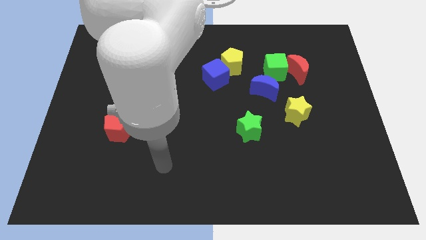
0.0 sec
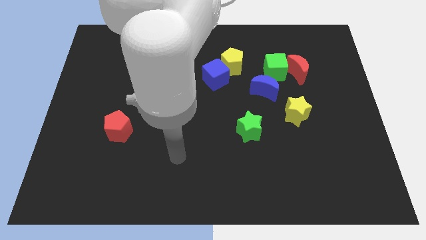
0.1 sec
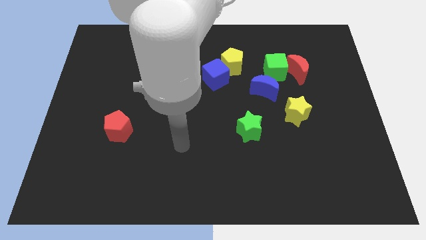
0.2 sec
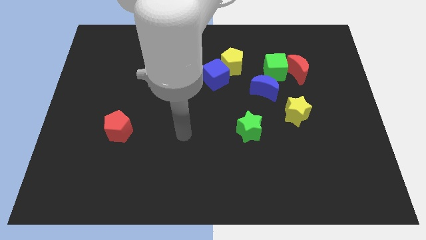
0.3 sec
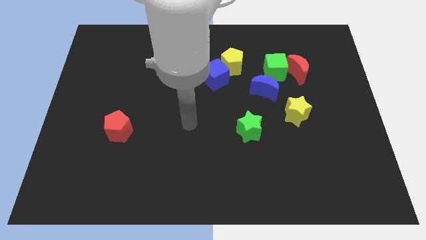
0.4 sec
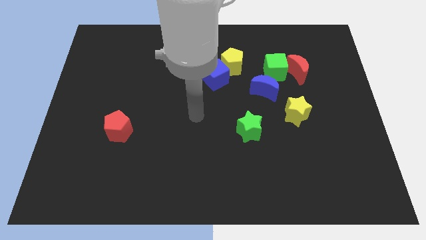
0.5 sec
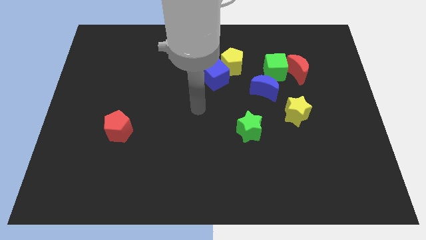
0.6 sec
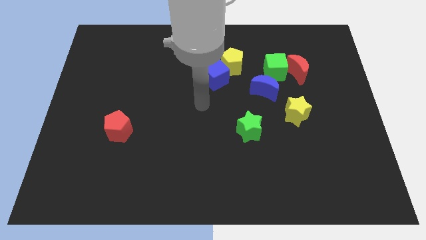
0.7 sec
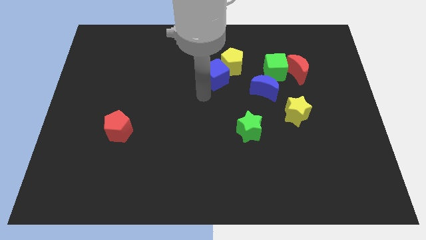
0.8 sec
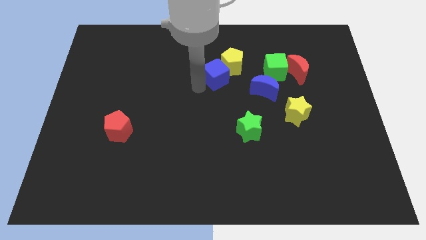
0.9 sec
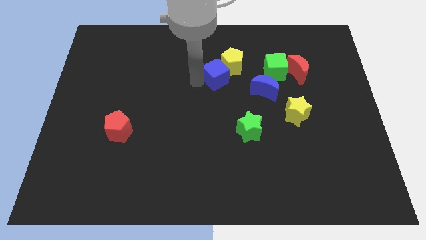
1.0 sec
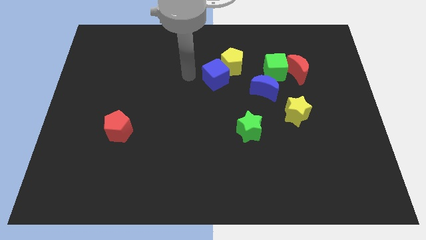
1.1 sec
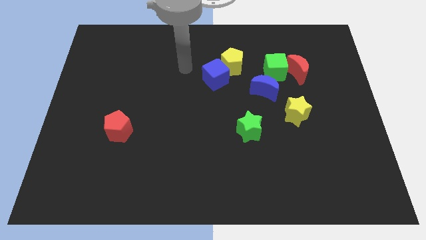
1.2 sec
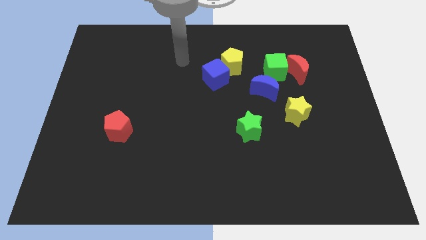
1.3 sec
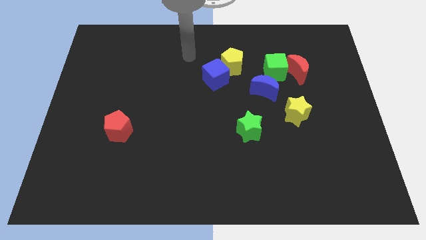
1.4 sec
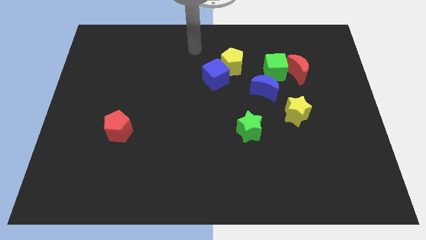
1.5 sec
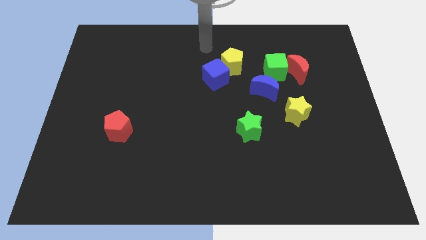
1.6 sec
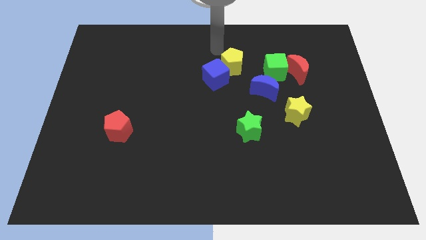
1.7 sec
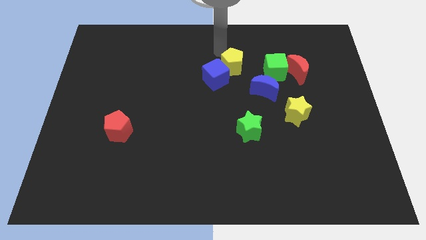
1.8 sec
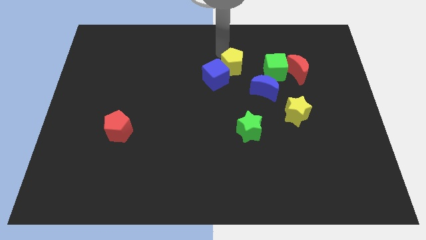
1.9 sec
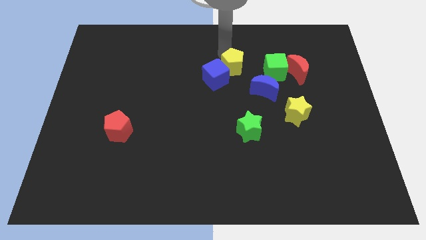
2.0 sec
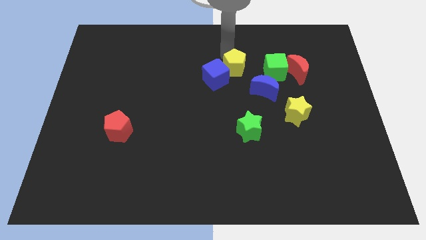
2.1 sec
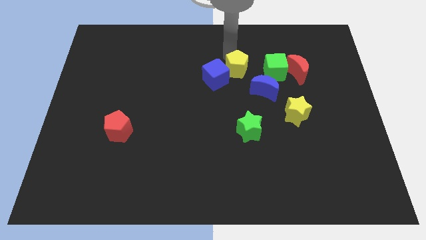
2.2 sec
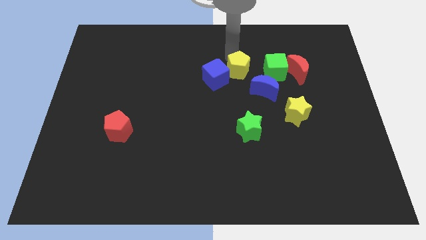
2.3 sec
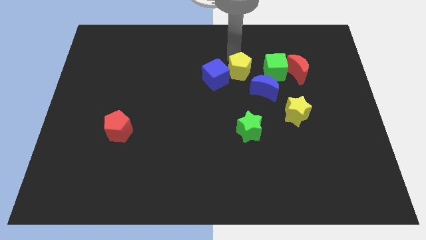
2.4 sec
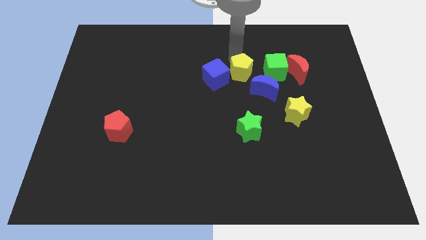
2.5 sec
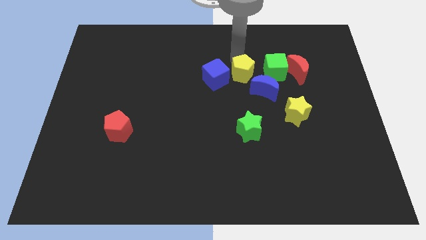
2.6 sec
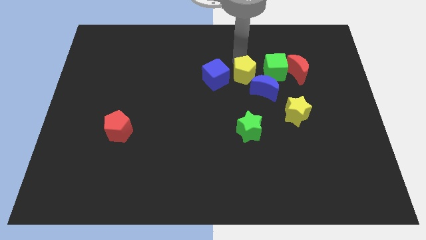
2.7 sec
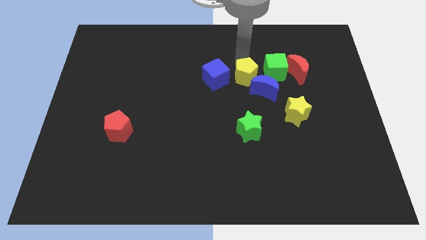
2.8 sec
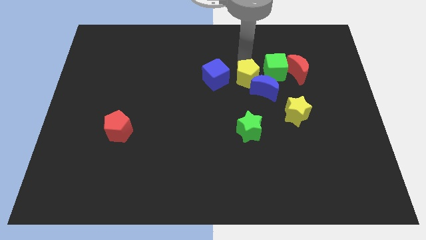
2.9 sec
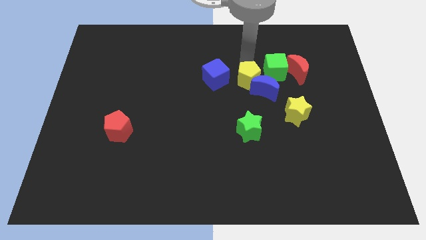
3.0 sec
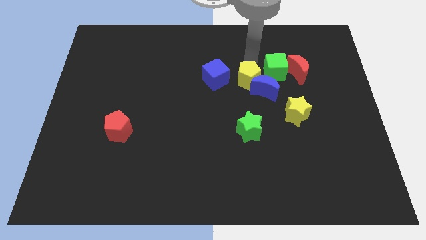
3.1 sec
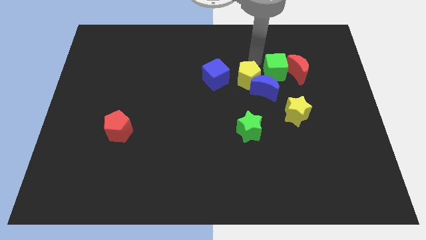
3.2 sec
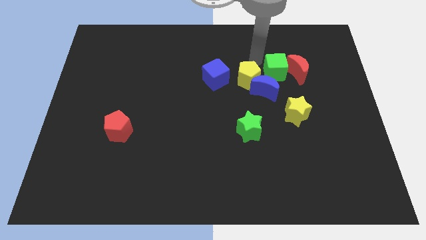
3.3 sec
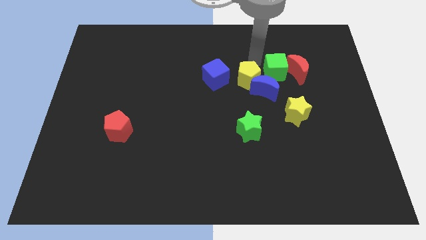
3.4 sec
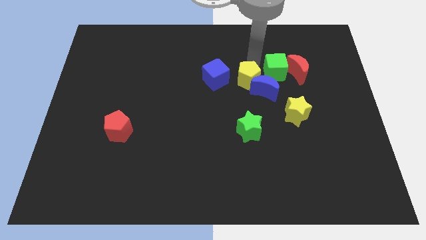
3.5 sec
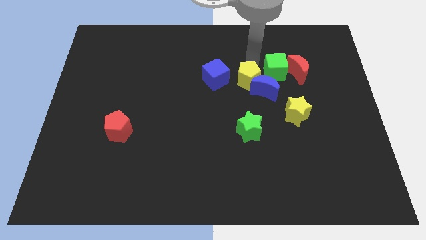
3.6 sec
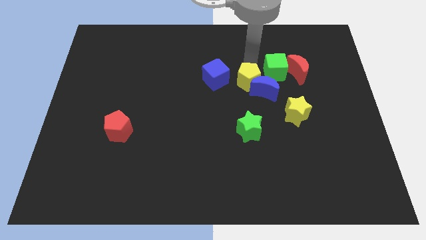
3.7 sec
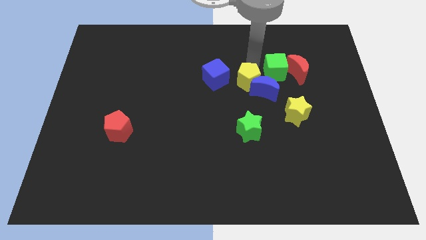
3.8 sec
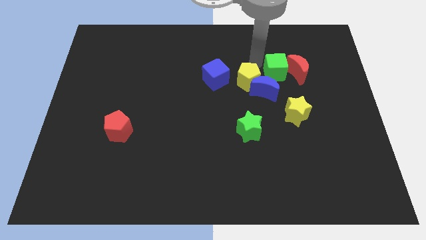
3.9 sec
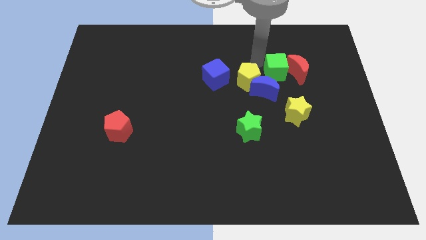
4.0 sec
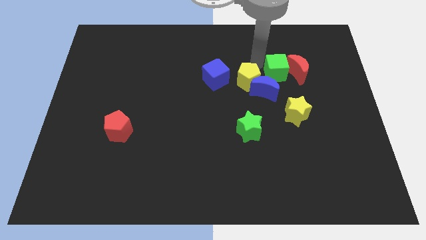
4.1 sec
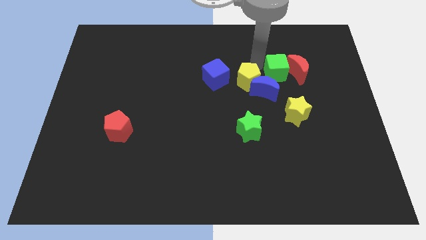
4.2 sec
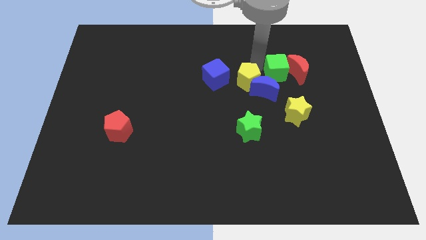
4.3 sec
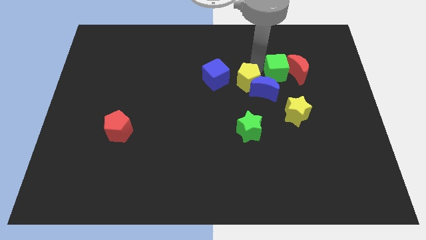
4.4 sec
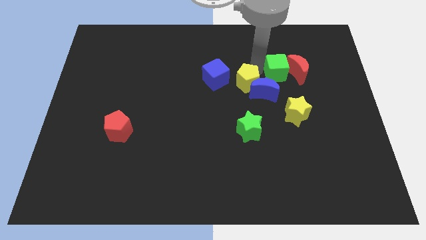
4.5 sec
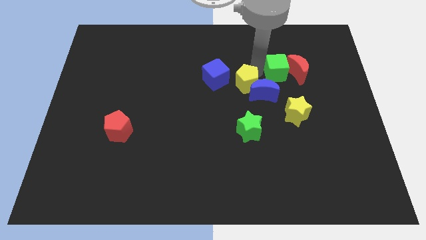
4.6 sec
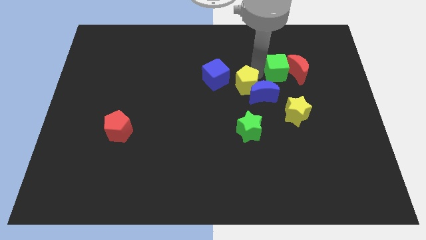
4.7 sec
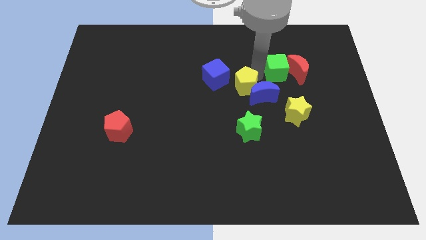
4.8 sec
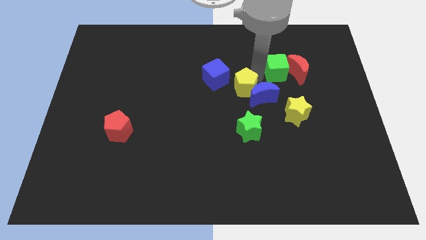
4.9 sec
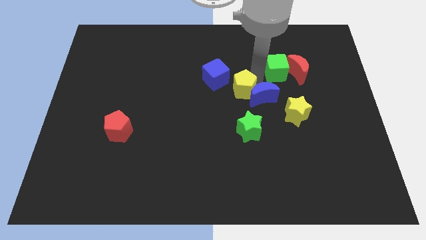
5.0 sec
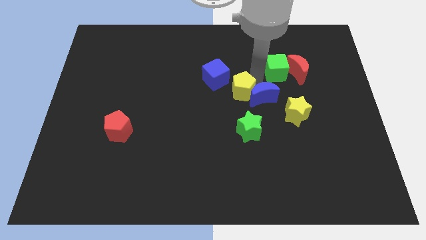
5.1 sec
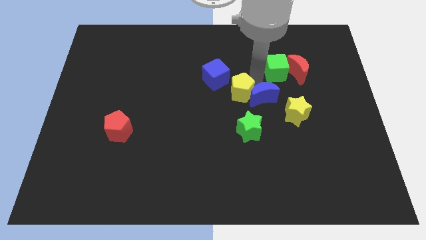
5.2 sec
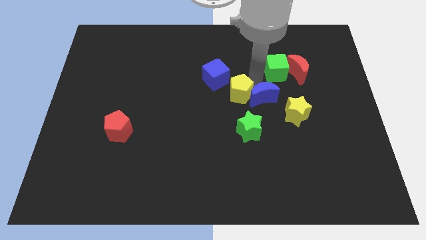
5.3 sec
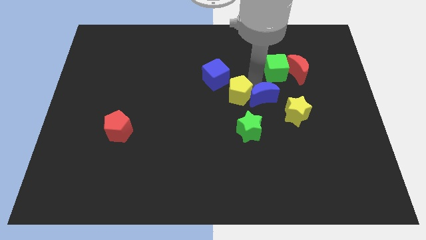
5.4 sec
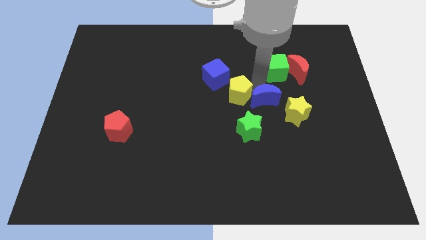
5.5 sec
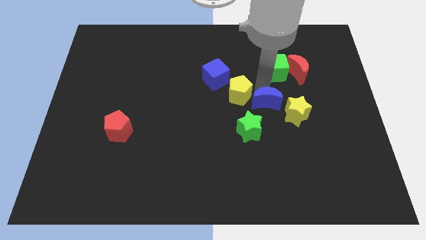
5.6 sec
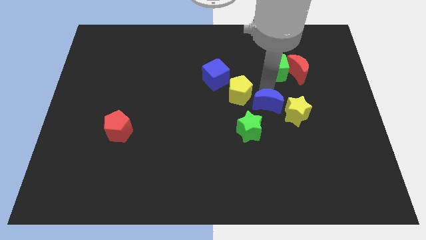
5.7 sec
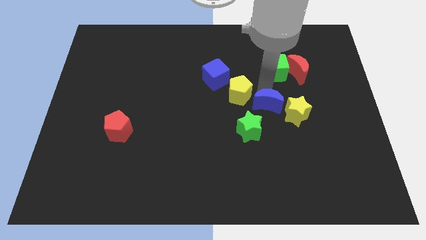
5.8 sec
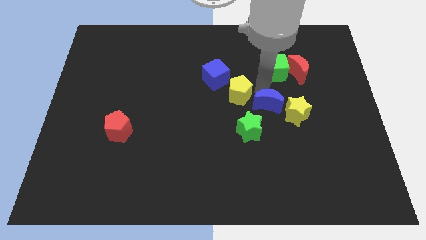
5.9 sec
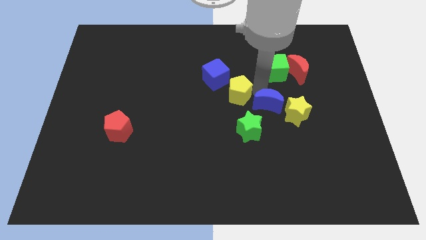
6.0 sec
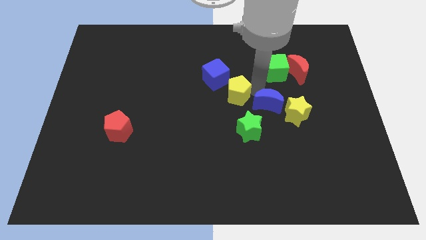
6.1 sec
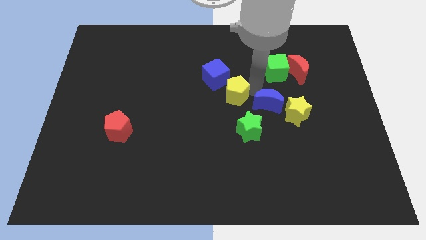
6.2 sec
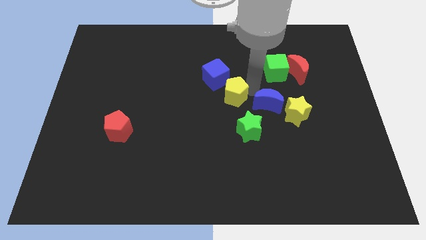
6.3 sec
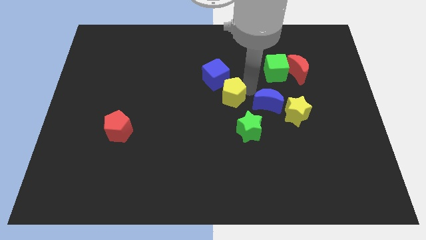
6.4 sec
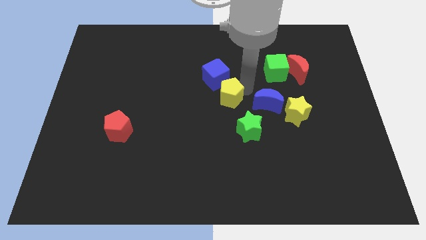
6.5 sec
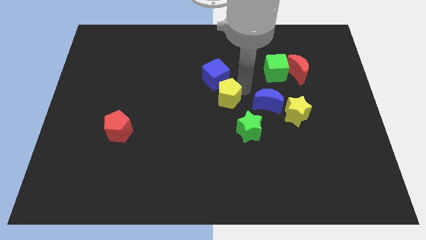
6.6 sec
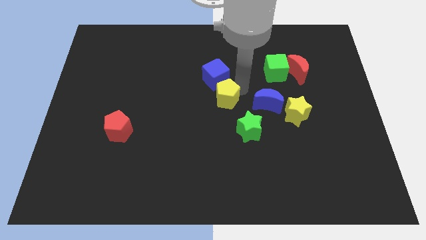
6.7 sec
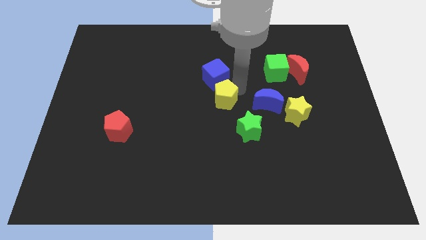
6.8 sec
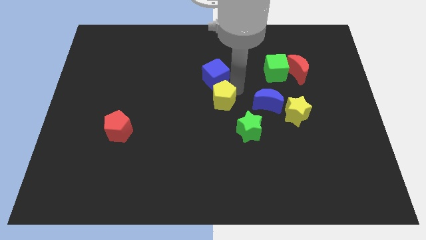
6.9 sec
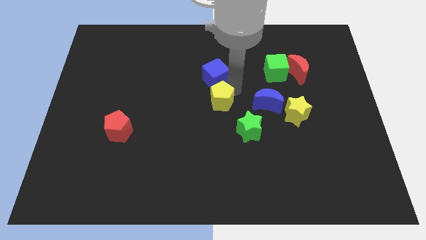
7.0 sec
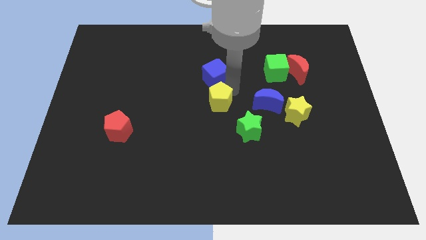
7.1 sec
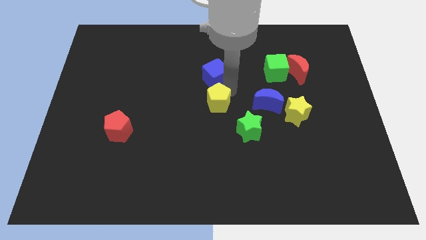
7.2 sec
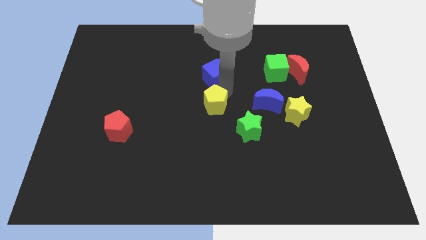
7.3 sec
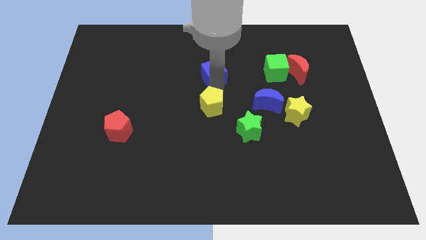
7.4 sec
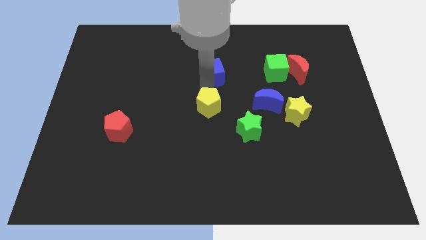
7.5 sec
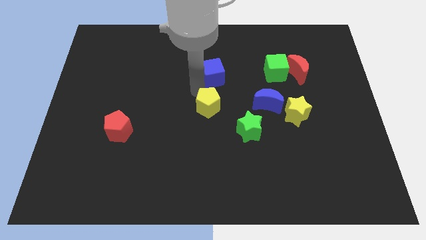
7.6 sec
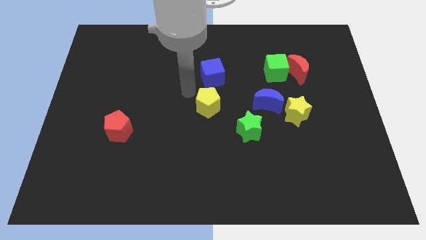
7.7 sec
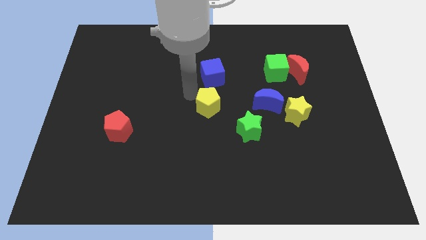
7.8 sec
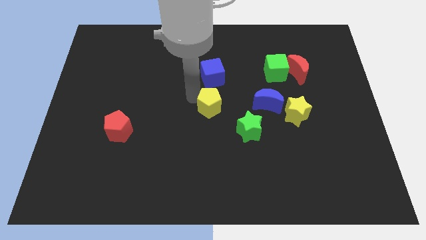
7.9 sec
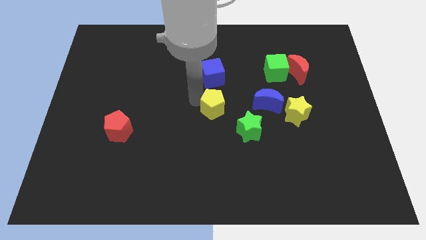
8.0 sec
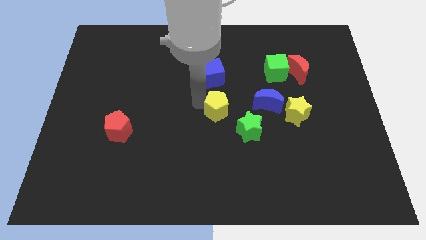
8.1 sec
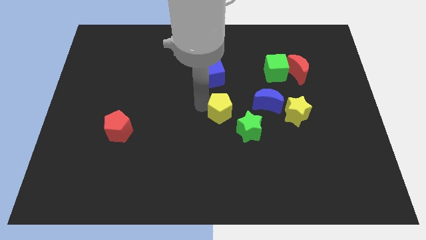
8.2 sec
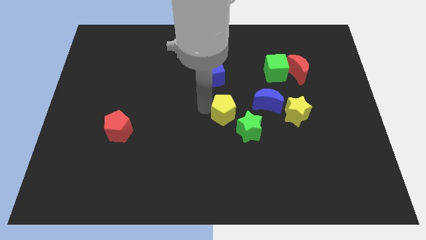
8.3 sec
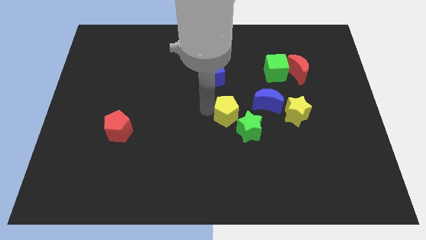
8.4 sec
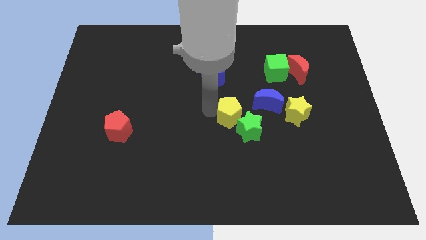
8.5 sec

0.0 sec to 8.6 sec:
slide the yellow pentagon next to the green star
